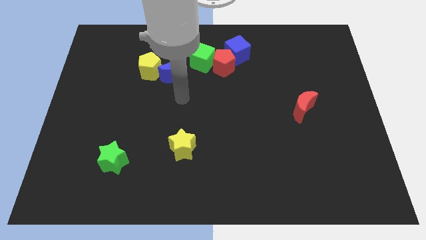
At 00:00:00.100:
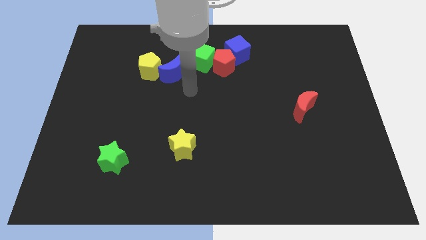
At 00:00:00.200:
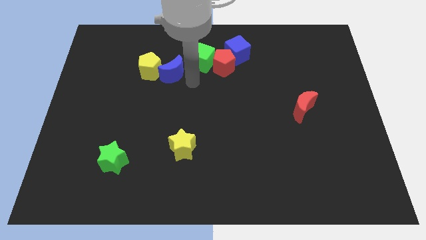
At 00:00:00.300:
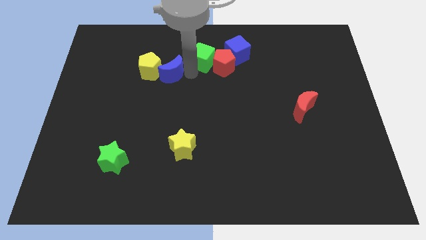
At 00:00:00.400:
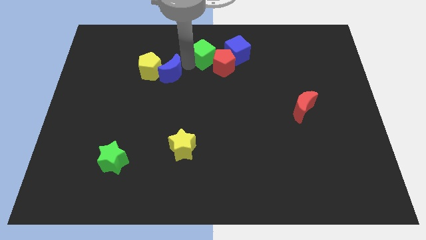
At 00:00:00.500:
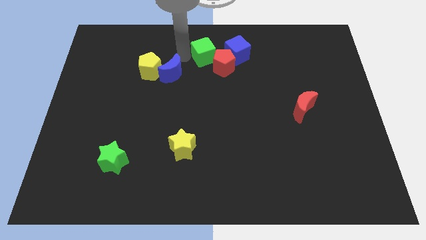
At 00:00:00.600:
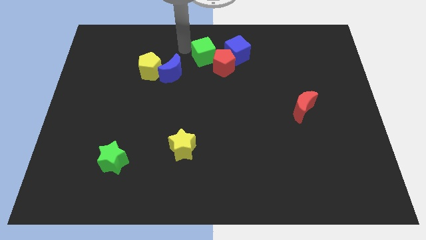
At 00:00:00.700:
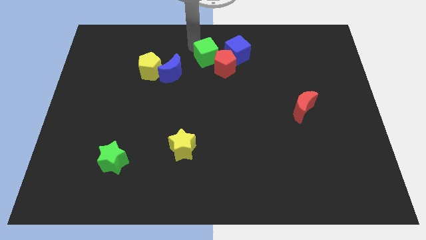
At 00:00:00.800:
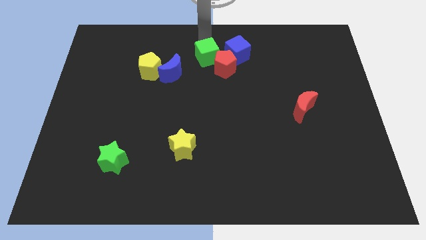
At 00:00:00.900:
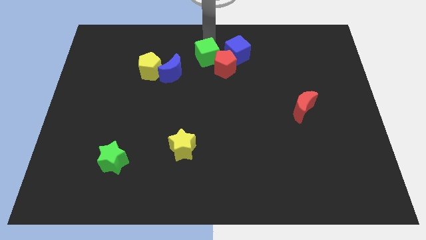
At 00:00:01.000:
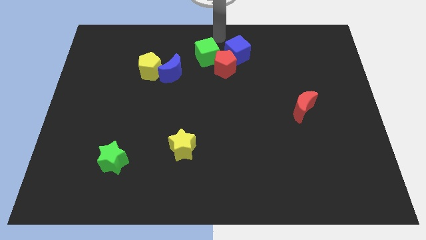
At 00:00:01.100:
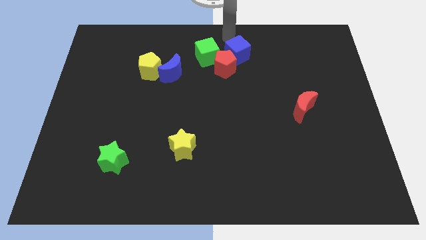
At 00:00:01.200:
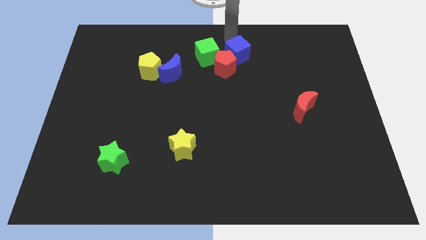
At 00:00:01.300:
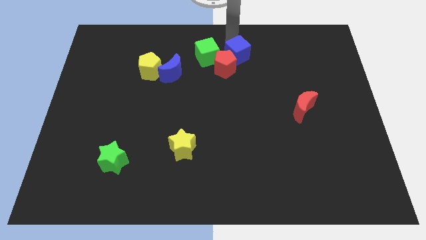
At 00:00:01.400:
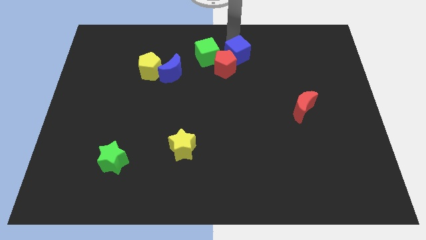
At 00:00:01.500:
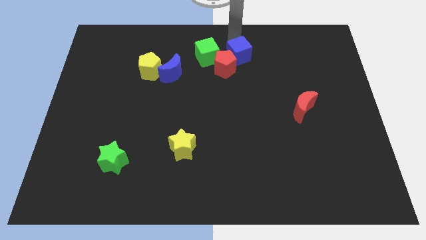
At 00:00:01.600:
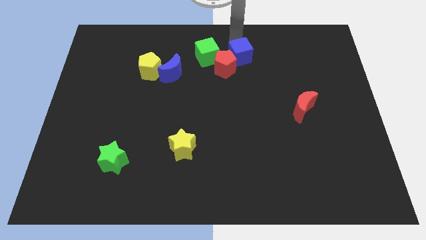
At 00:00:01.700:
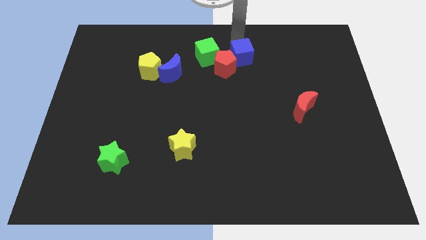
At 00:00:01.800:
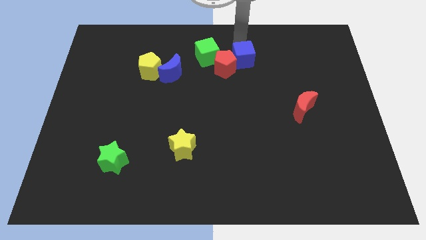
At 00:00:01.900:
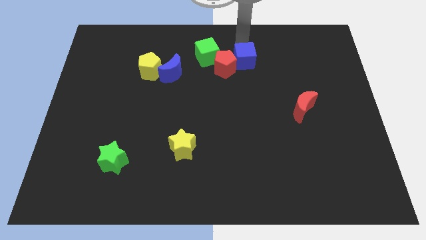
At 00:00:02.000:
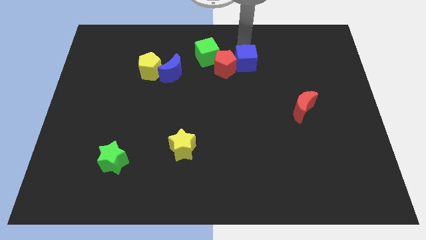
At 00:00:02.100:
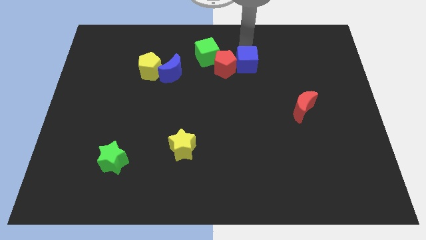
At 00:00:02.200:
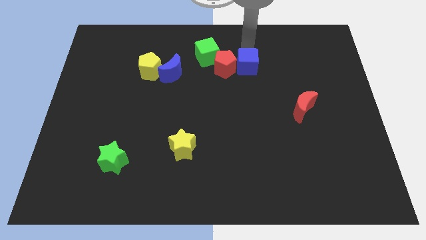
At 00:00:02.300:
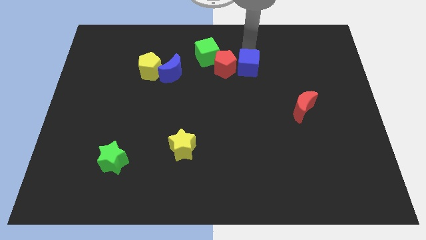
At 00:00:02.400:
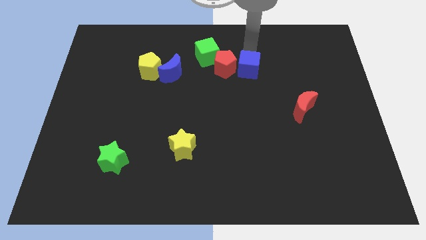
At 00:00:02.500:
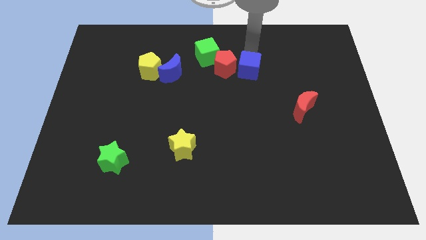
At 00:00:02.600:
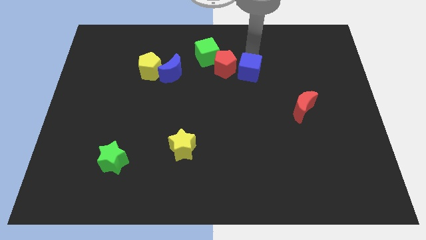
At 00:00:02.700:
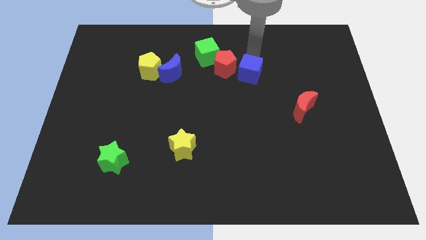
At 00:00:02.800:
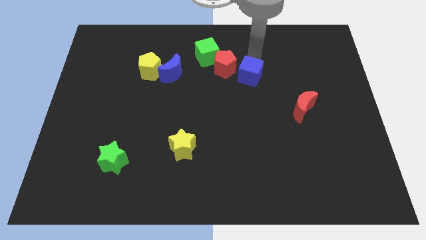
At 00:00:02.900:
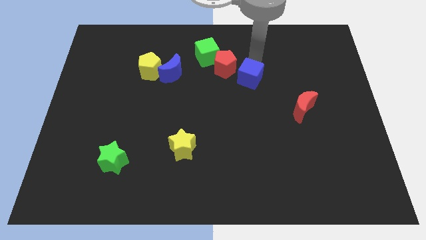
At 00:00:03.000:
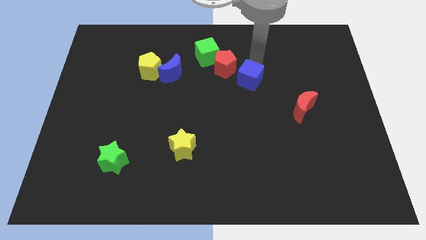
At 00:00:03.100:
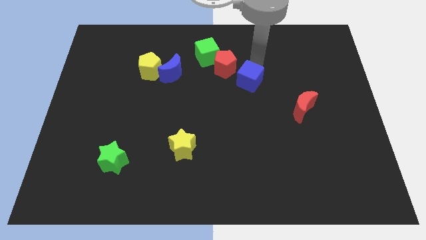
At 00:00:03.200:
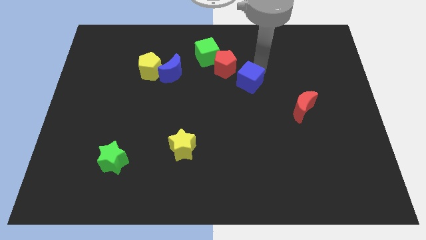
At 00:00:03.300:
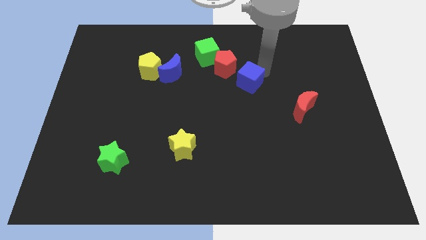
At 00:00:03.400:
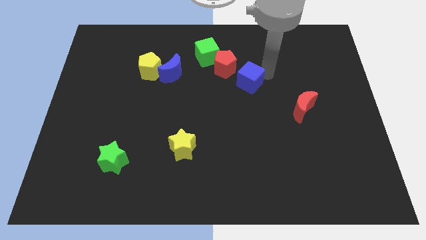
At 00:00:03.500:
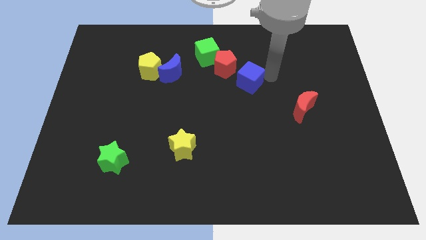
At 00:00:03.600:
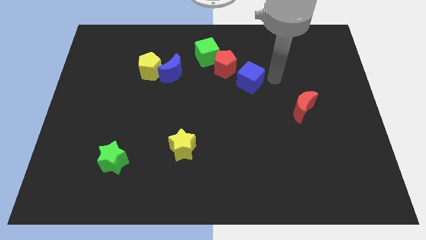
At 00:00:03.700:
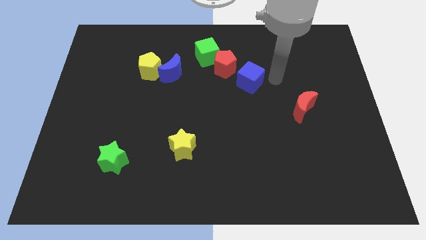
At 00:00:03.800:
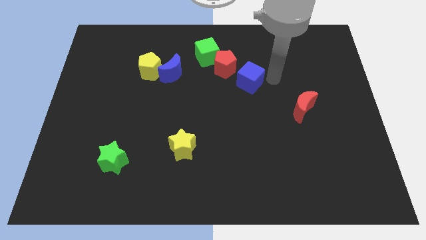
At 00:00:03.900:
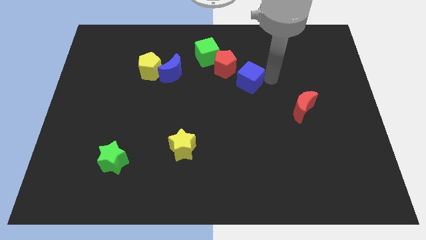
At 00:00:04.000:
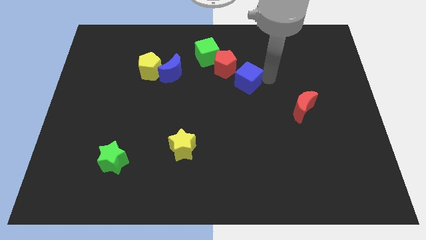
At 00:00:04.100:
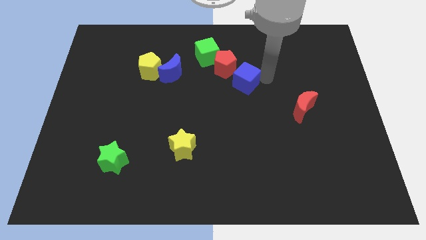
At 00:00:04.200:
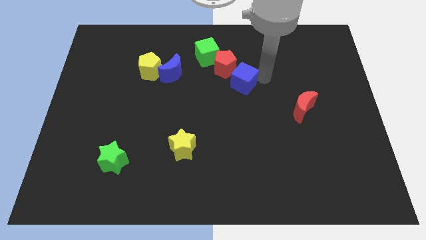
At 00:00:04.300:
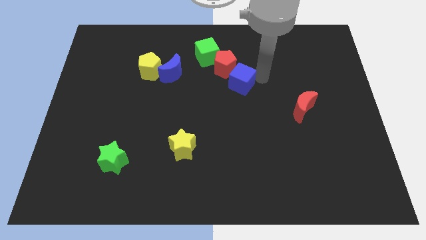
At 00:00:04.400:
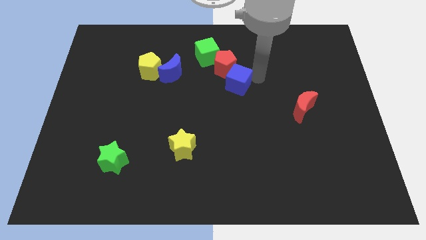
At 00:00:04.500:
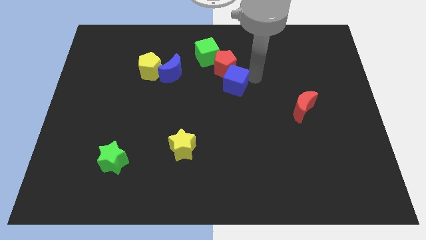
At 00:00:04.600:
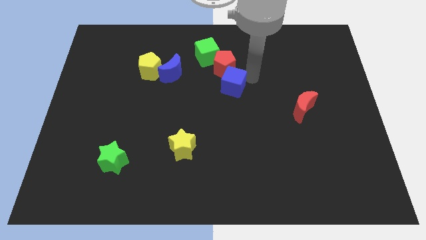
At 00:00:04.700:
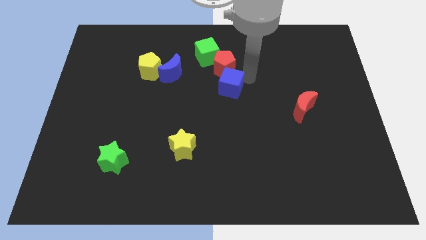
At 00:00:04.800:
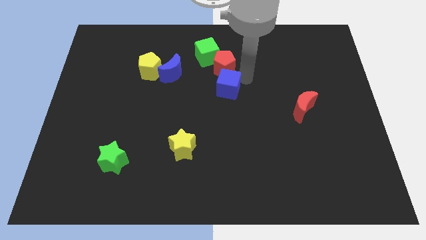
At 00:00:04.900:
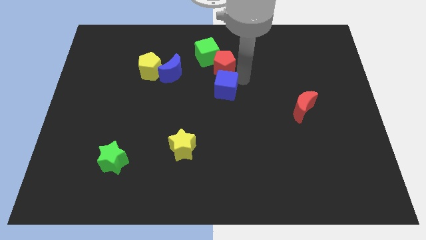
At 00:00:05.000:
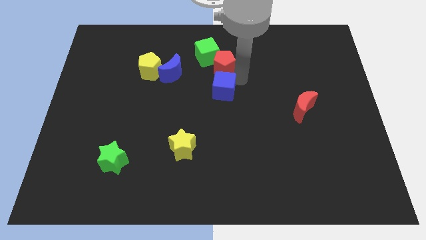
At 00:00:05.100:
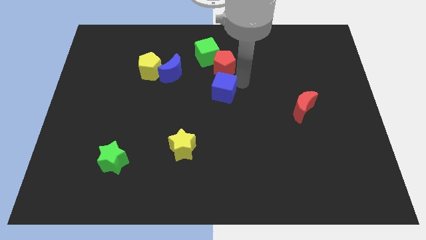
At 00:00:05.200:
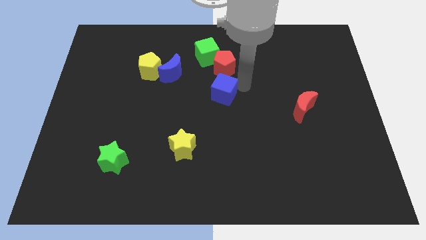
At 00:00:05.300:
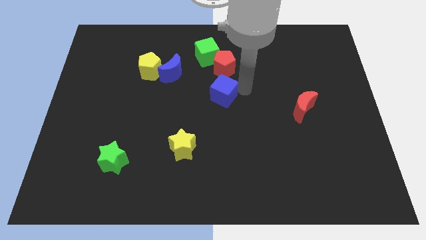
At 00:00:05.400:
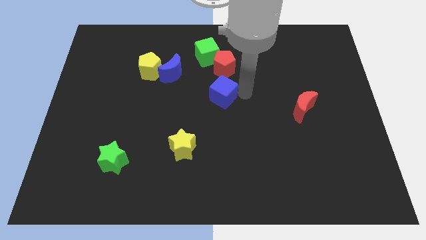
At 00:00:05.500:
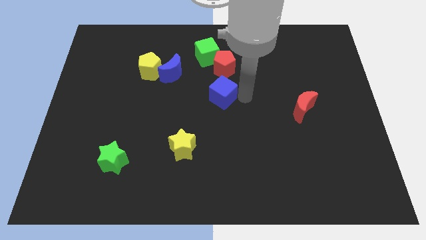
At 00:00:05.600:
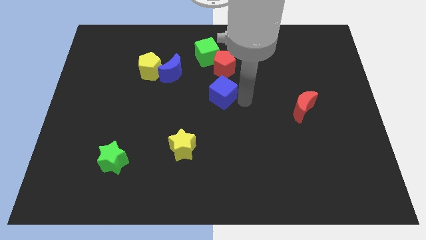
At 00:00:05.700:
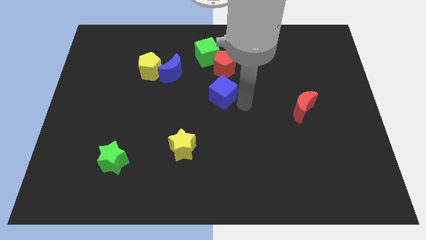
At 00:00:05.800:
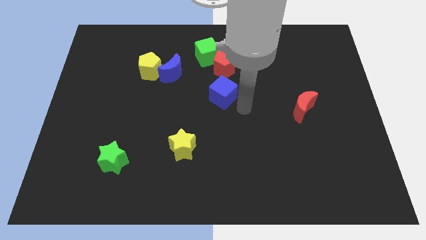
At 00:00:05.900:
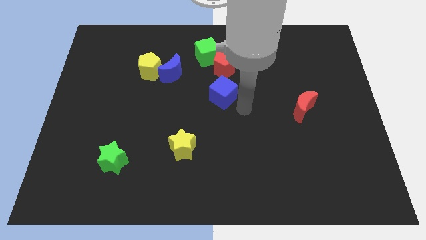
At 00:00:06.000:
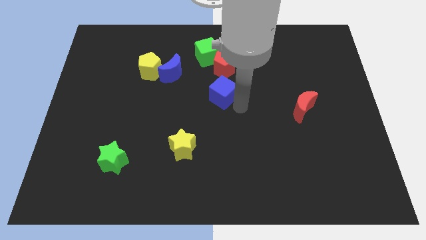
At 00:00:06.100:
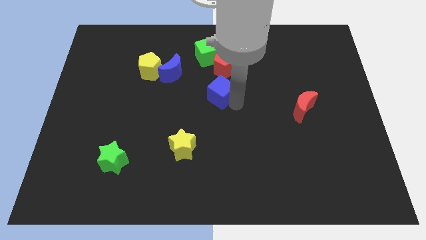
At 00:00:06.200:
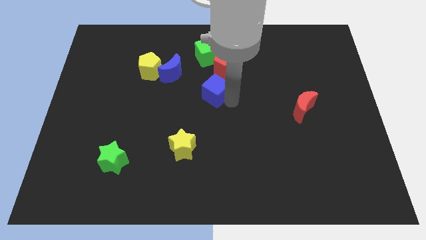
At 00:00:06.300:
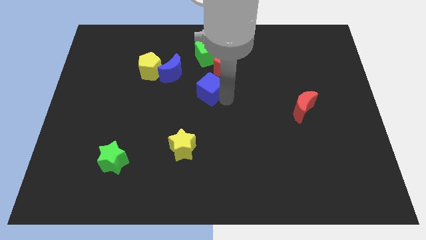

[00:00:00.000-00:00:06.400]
slide the blue cube diagonally down and to the right of the blue moon
